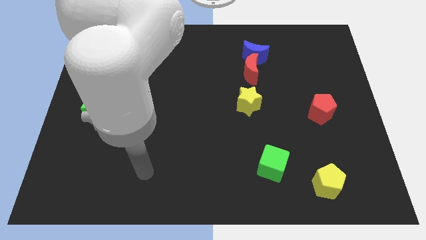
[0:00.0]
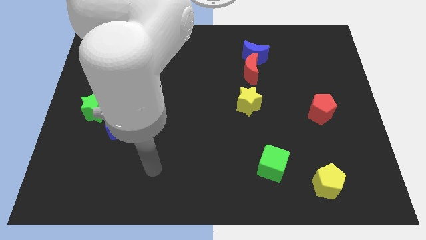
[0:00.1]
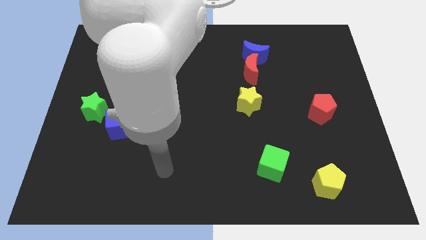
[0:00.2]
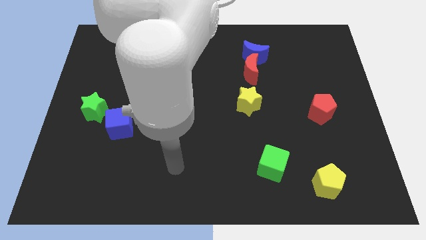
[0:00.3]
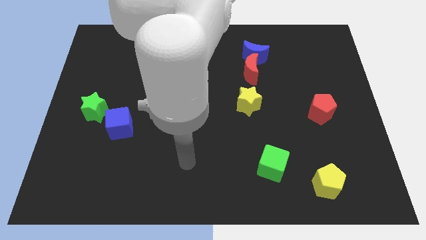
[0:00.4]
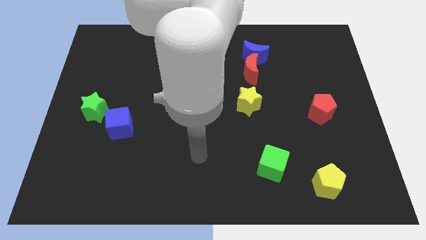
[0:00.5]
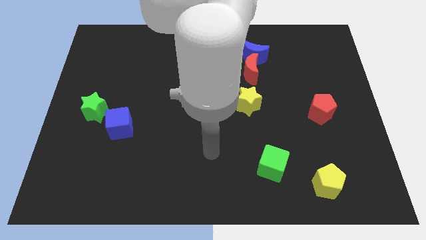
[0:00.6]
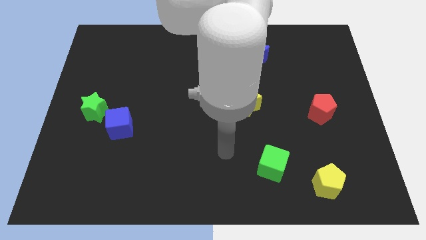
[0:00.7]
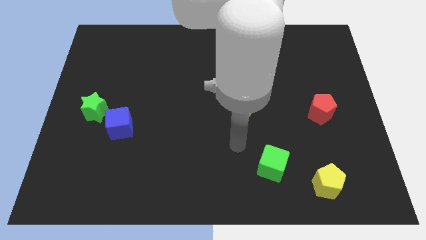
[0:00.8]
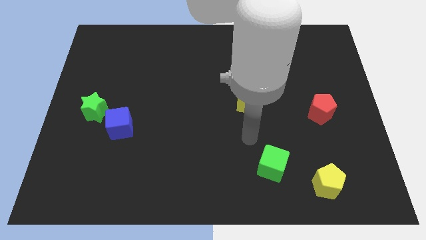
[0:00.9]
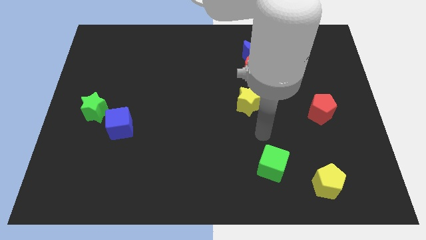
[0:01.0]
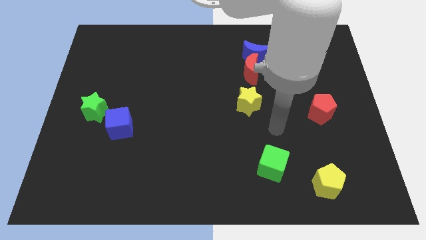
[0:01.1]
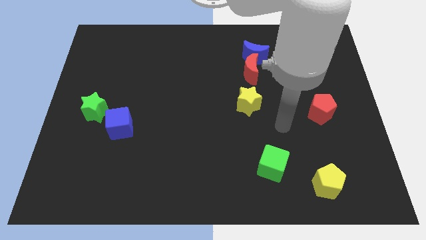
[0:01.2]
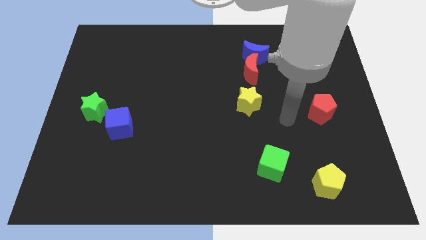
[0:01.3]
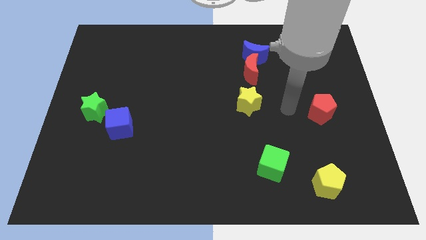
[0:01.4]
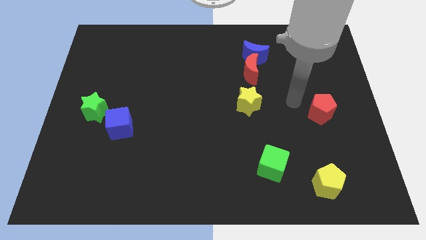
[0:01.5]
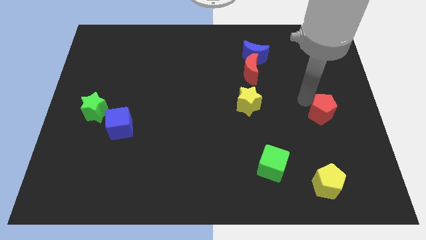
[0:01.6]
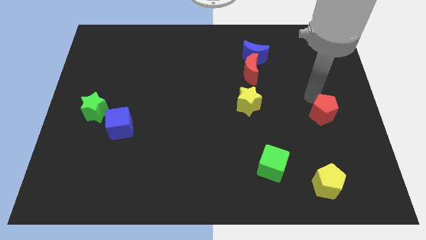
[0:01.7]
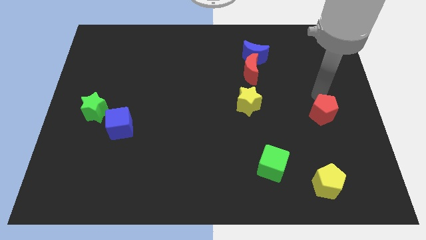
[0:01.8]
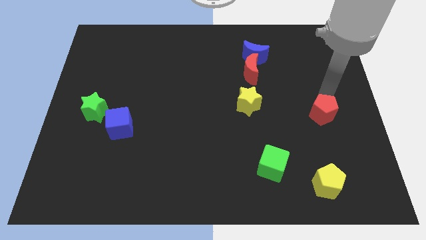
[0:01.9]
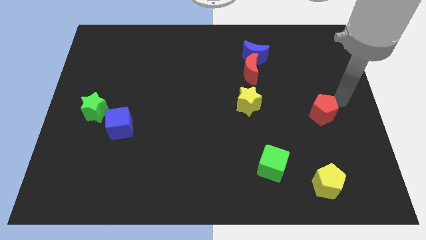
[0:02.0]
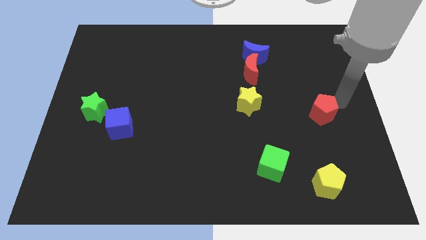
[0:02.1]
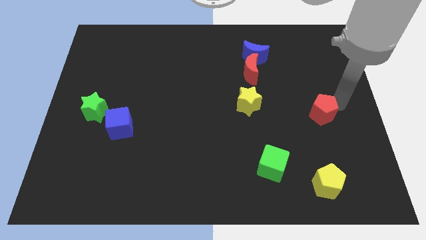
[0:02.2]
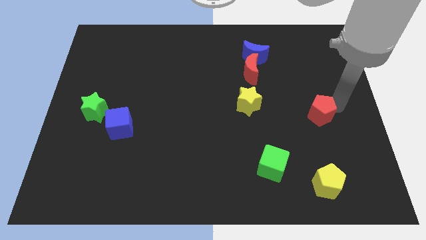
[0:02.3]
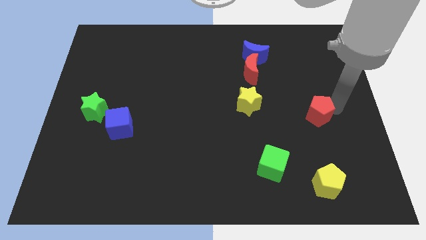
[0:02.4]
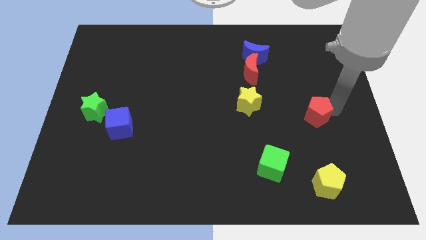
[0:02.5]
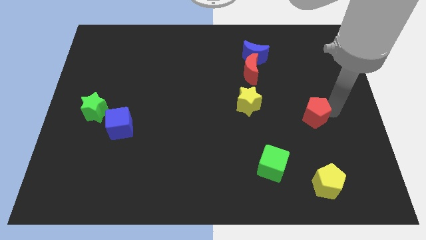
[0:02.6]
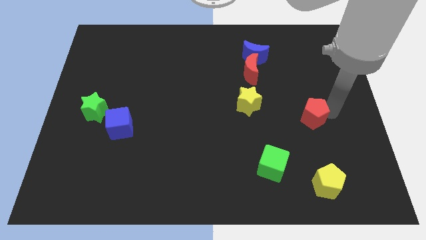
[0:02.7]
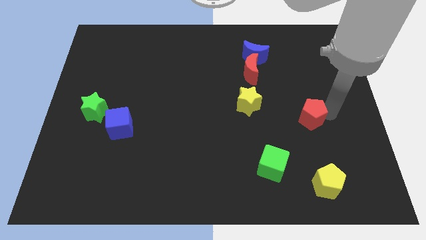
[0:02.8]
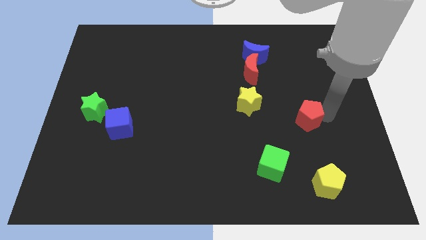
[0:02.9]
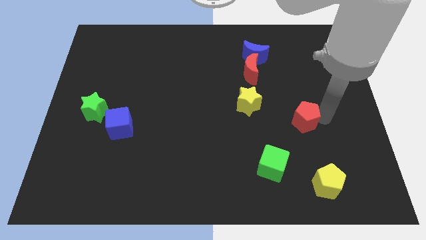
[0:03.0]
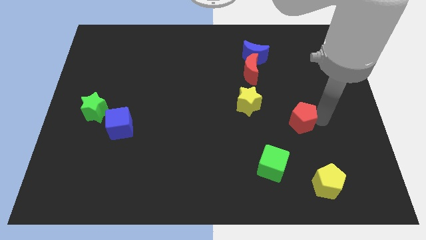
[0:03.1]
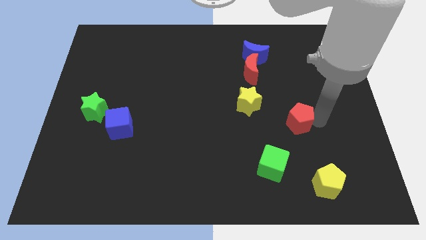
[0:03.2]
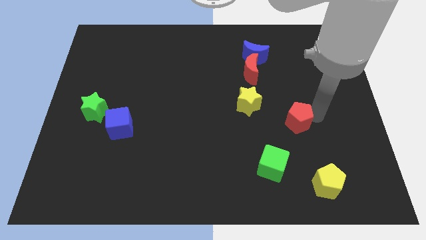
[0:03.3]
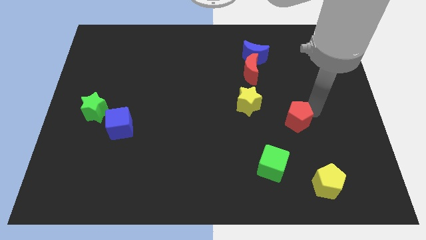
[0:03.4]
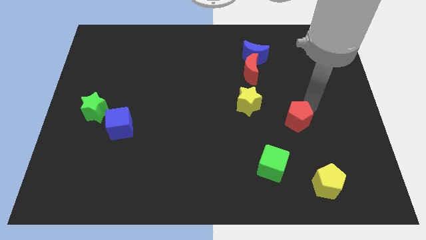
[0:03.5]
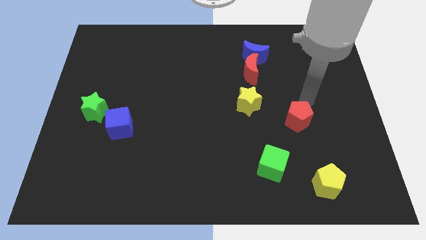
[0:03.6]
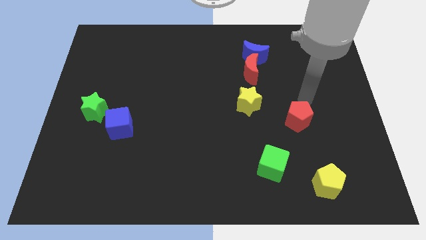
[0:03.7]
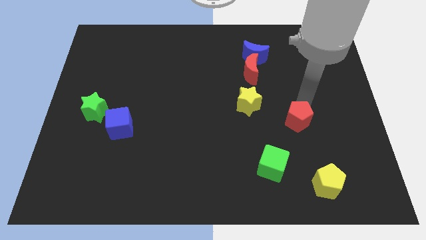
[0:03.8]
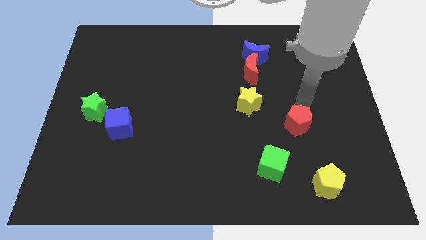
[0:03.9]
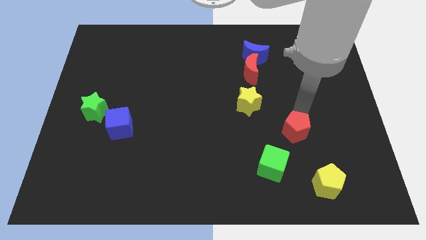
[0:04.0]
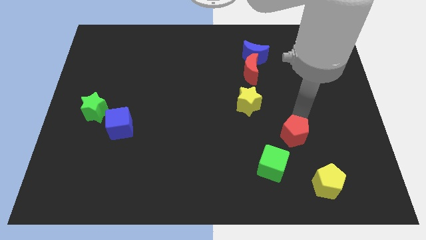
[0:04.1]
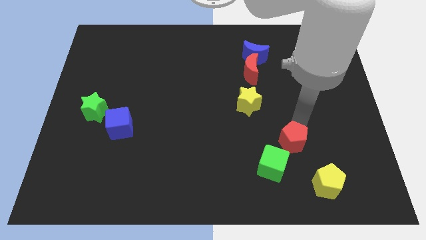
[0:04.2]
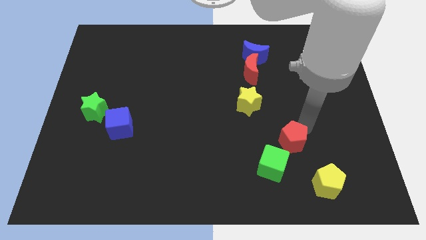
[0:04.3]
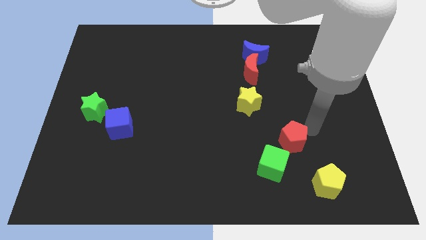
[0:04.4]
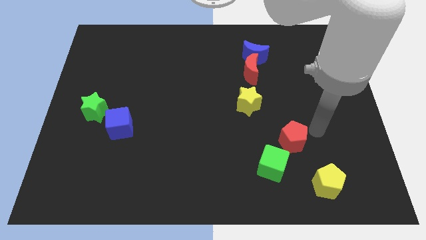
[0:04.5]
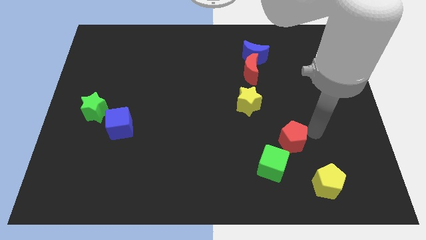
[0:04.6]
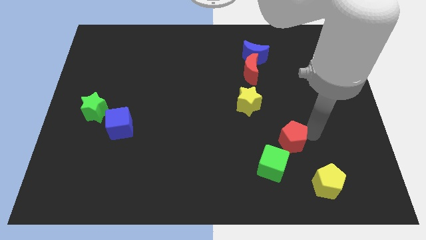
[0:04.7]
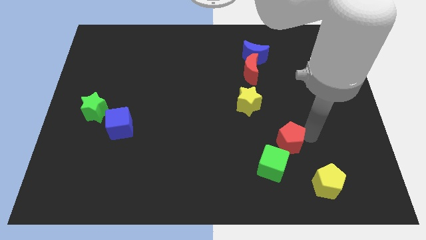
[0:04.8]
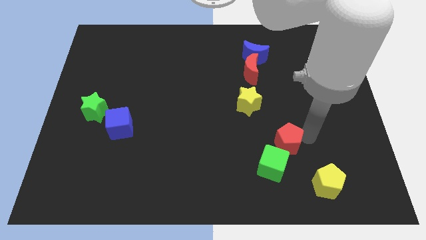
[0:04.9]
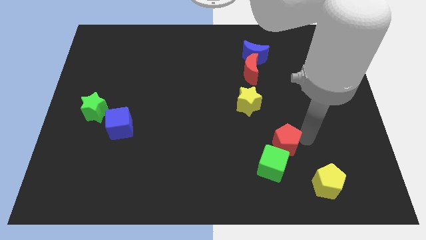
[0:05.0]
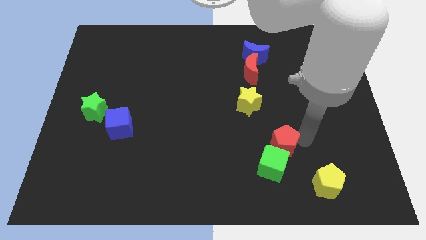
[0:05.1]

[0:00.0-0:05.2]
put the red pentagon close to the green cube

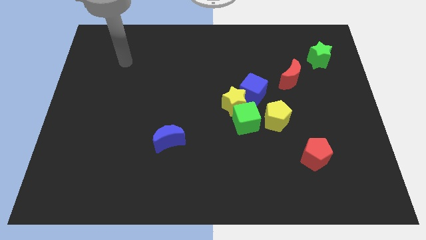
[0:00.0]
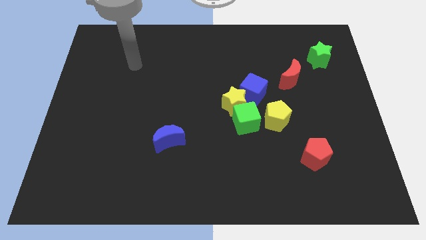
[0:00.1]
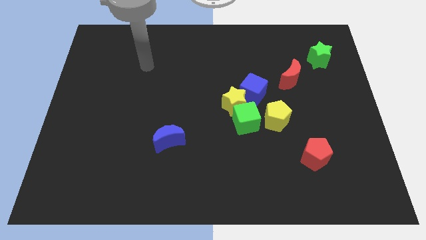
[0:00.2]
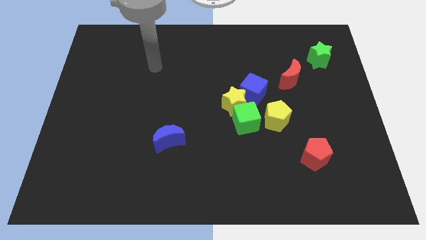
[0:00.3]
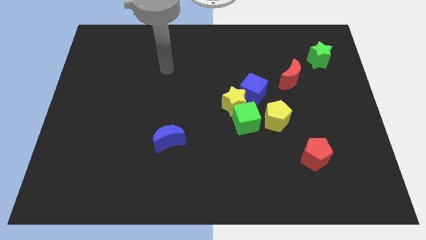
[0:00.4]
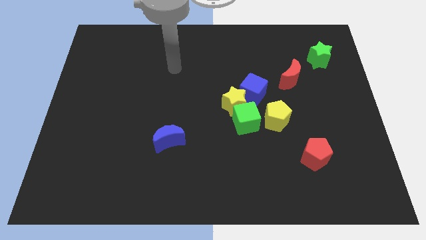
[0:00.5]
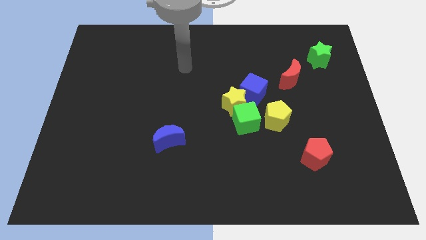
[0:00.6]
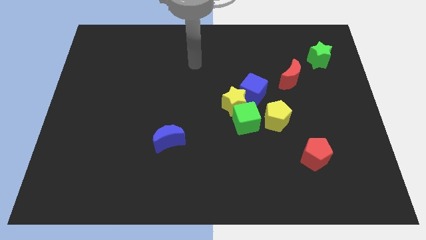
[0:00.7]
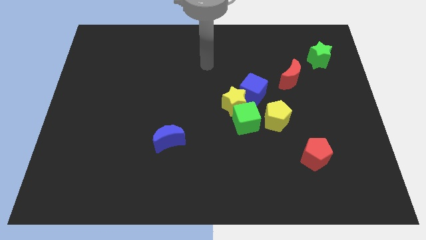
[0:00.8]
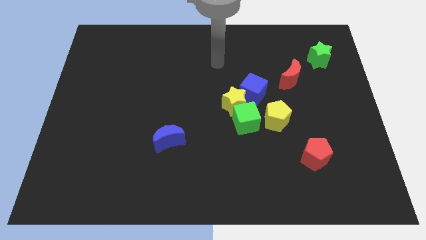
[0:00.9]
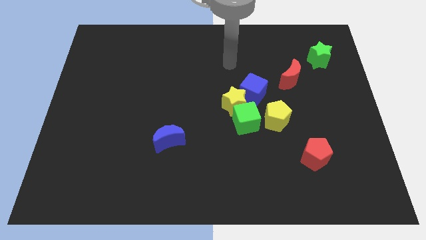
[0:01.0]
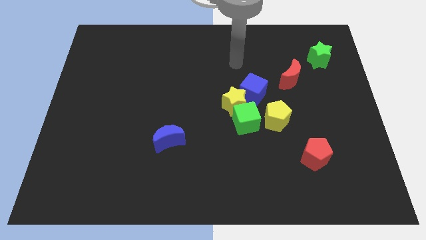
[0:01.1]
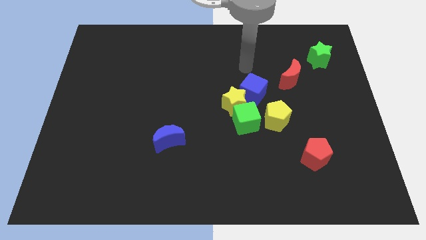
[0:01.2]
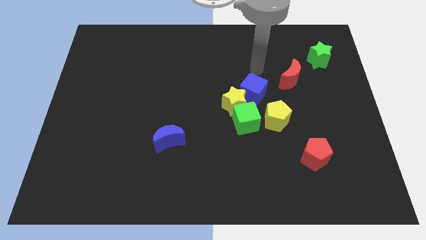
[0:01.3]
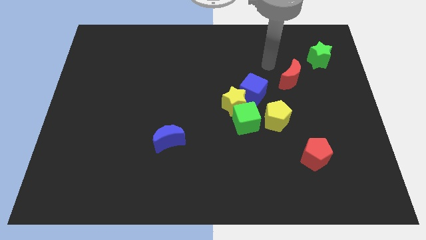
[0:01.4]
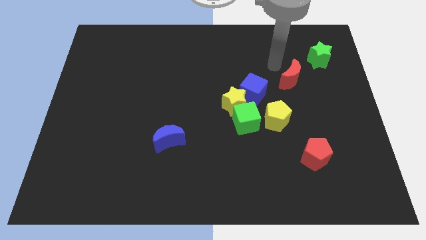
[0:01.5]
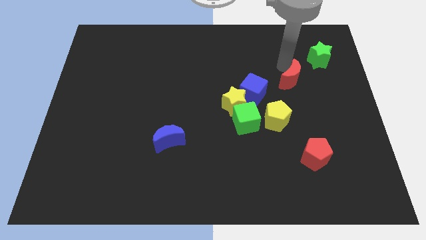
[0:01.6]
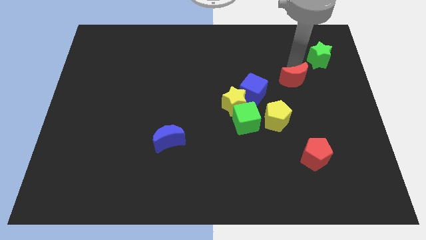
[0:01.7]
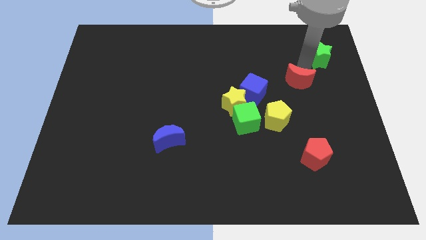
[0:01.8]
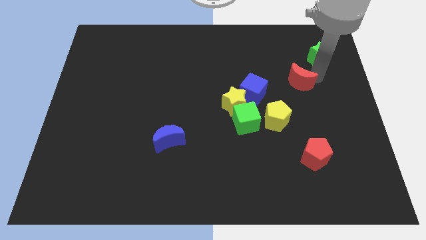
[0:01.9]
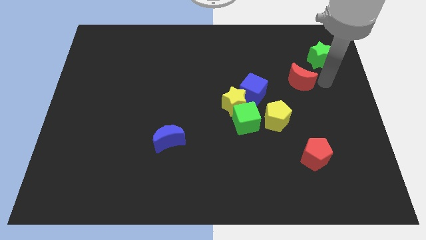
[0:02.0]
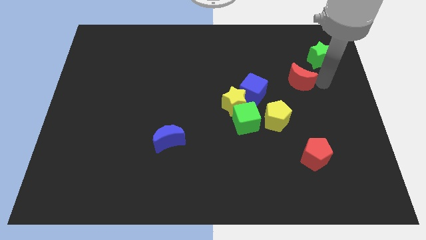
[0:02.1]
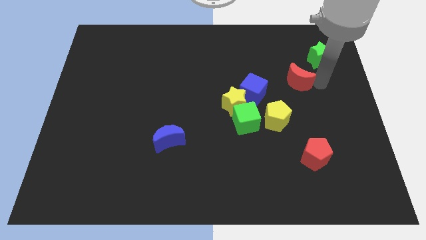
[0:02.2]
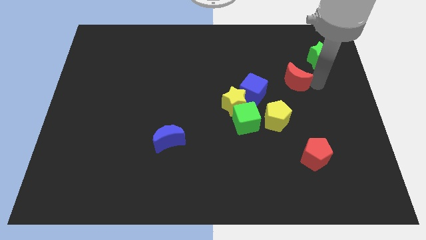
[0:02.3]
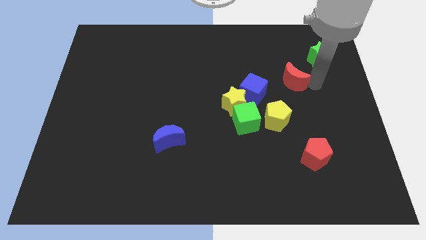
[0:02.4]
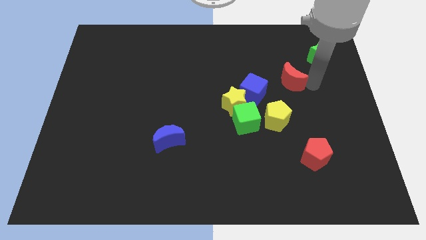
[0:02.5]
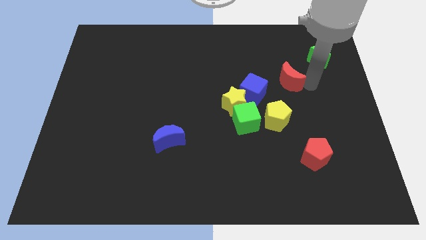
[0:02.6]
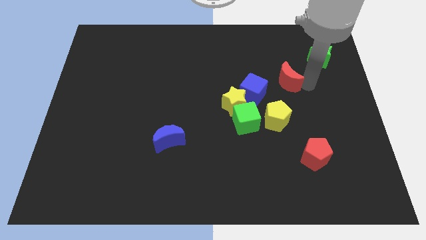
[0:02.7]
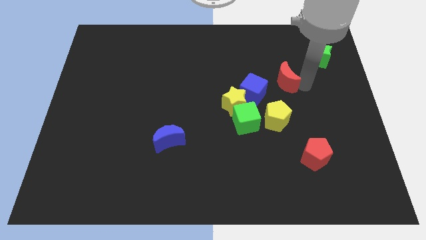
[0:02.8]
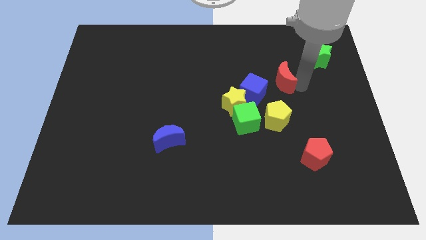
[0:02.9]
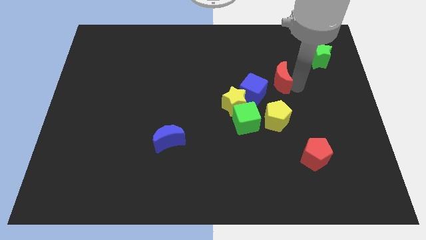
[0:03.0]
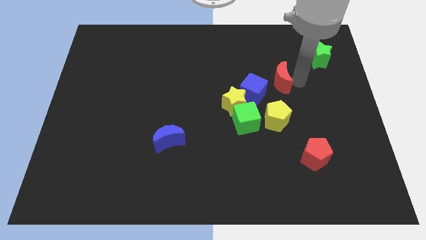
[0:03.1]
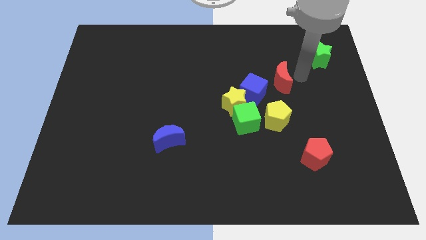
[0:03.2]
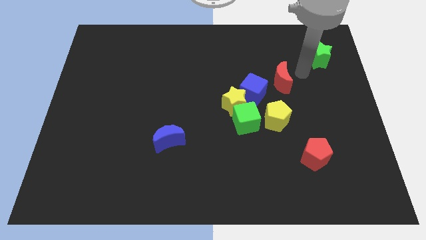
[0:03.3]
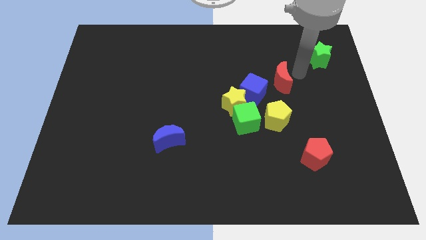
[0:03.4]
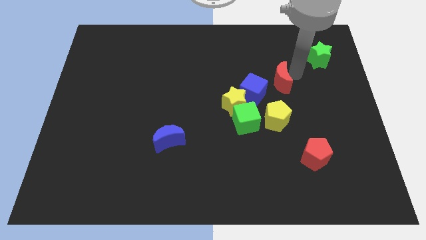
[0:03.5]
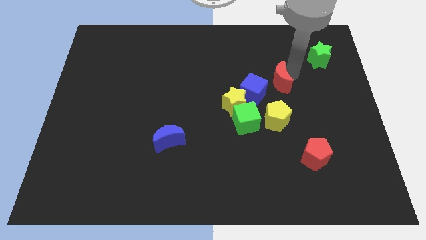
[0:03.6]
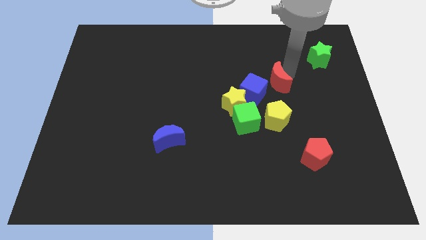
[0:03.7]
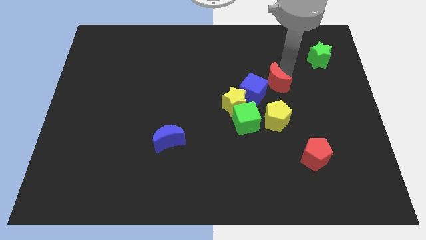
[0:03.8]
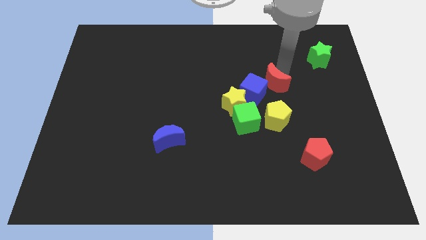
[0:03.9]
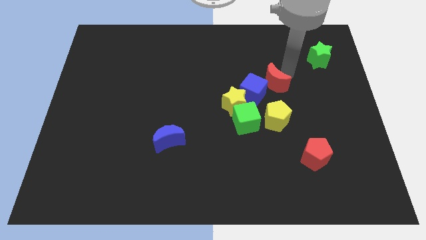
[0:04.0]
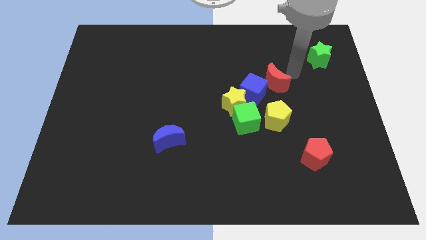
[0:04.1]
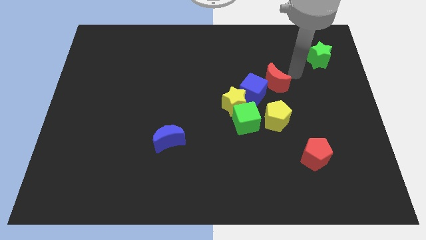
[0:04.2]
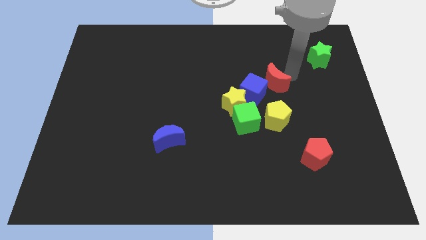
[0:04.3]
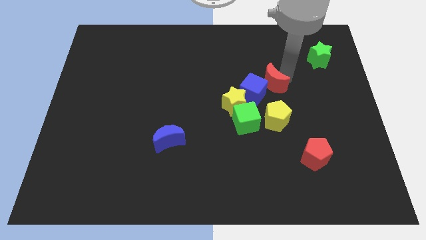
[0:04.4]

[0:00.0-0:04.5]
move the red moon close to the blue cube
